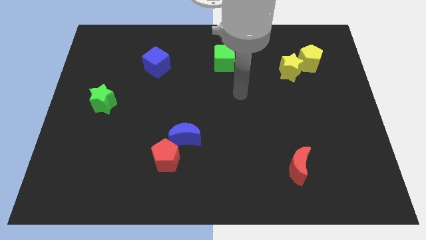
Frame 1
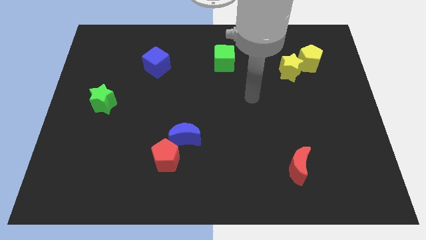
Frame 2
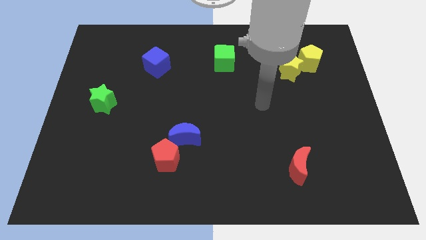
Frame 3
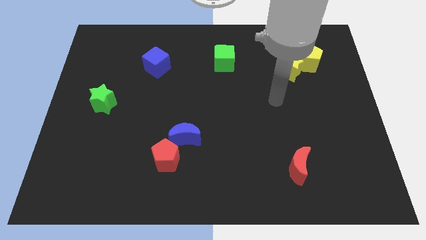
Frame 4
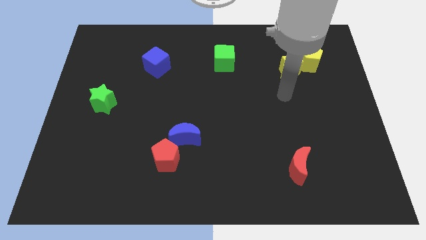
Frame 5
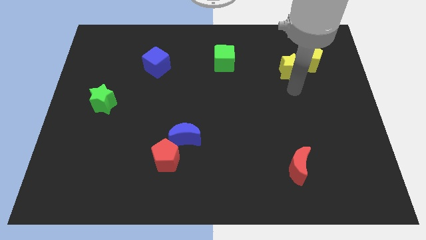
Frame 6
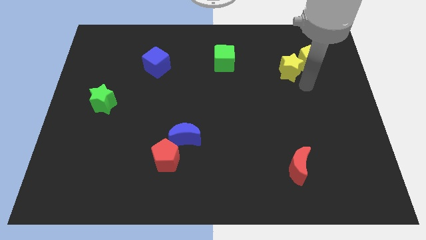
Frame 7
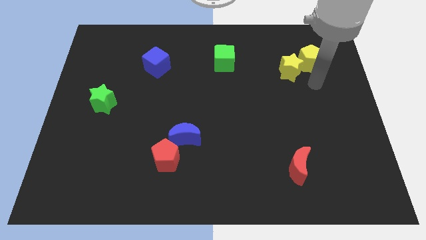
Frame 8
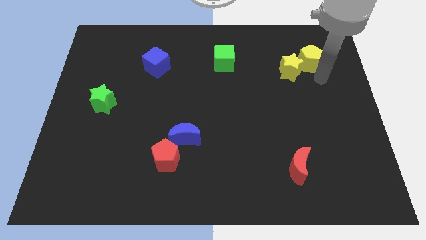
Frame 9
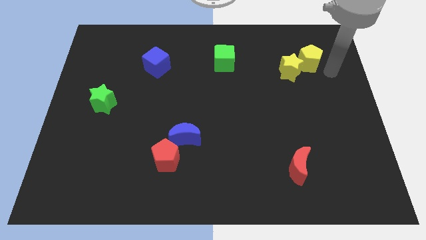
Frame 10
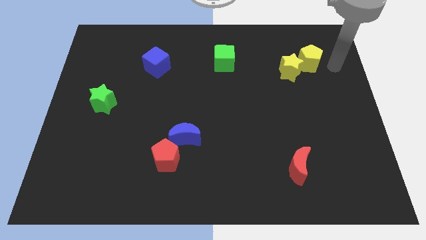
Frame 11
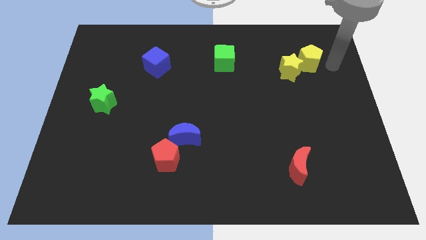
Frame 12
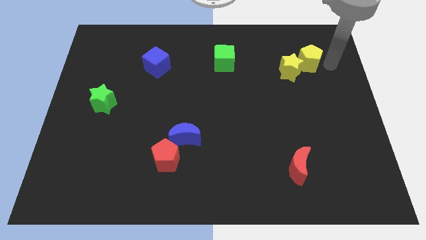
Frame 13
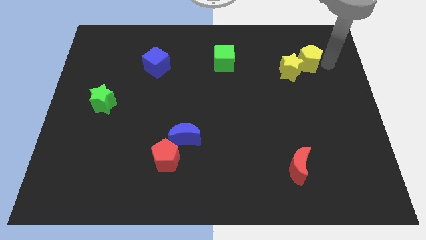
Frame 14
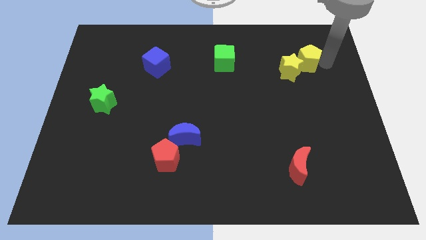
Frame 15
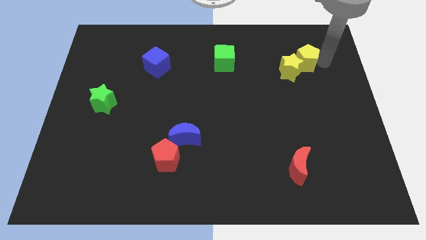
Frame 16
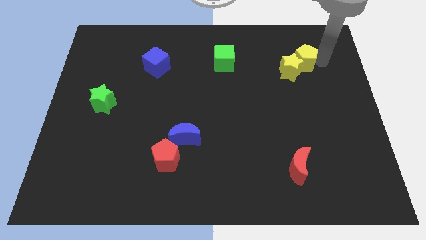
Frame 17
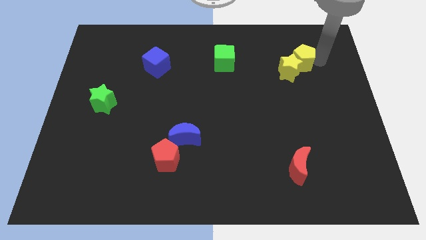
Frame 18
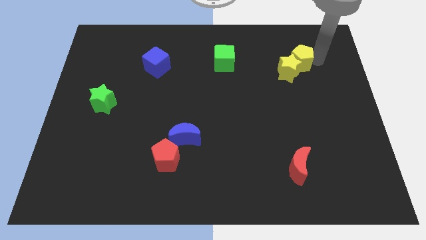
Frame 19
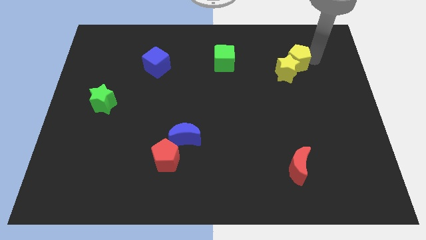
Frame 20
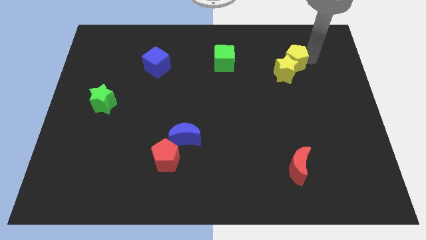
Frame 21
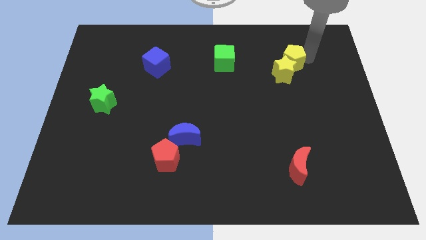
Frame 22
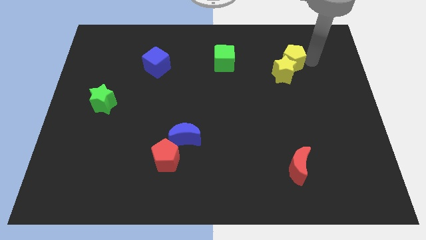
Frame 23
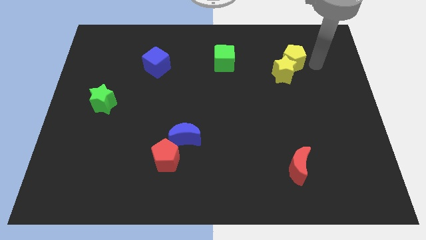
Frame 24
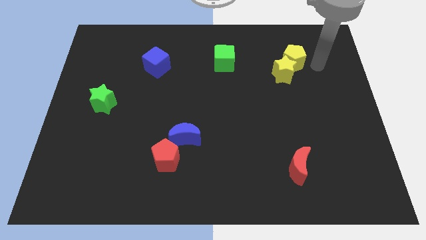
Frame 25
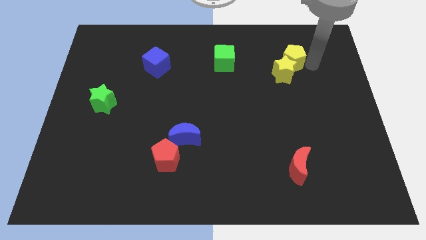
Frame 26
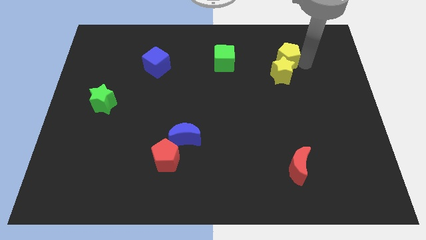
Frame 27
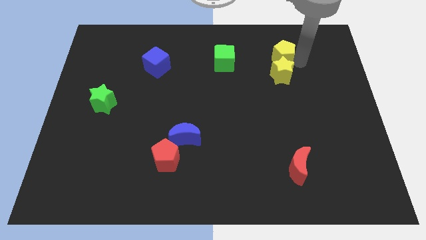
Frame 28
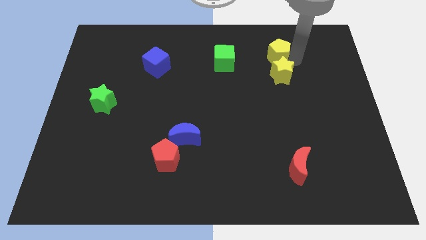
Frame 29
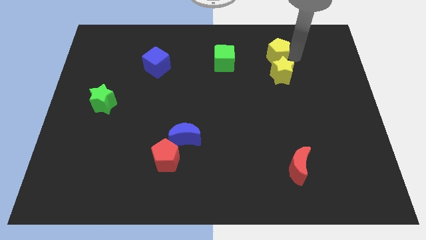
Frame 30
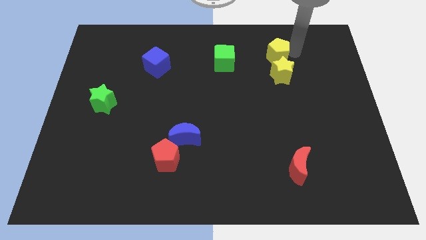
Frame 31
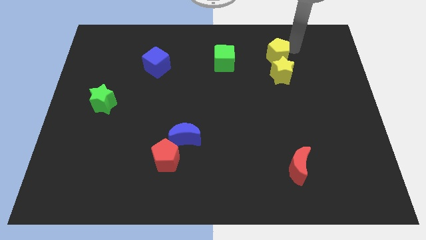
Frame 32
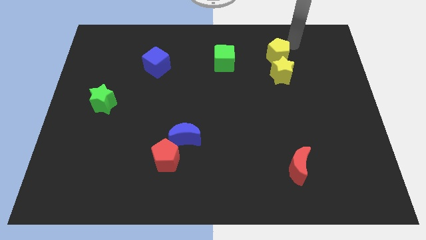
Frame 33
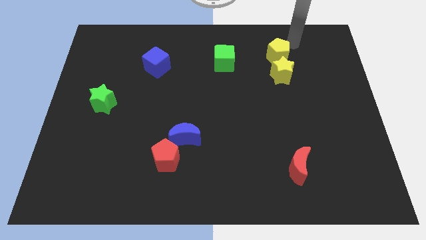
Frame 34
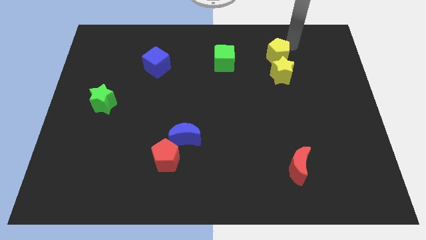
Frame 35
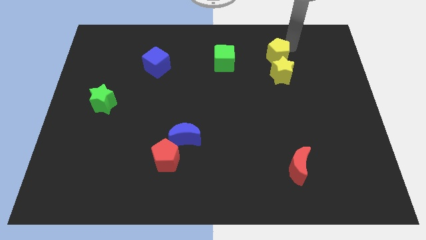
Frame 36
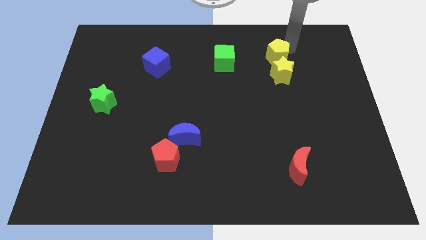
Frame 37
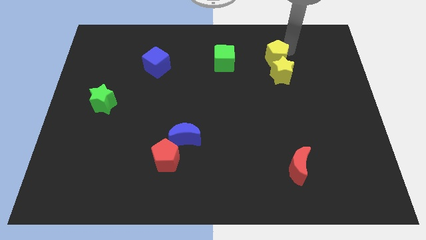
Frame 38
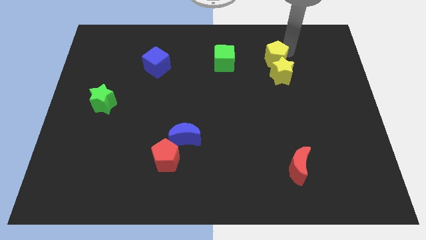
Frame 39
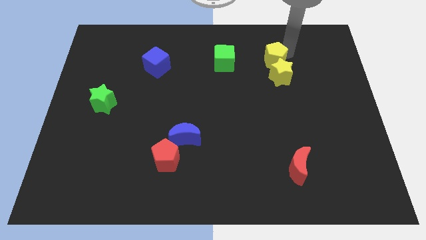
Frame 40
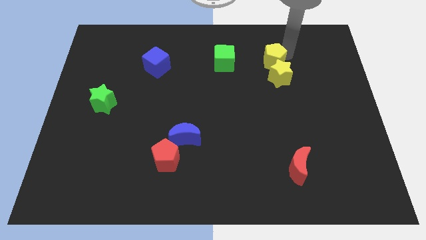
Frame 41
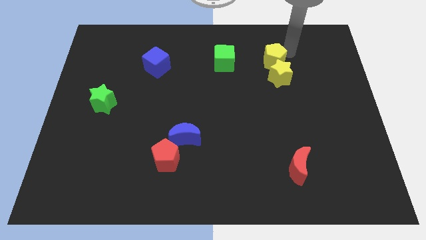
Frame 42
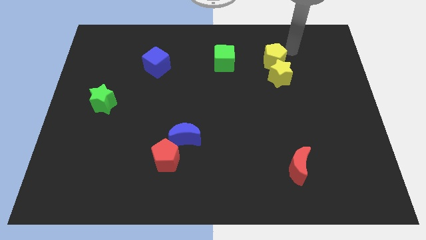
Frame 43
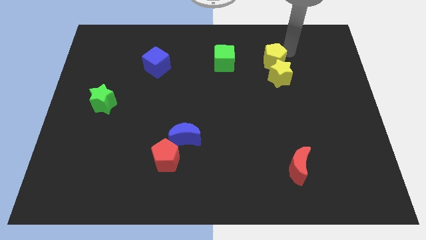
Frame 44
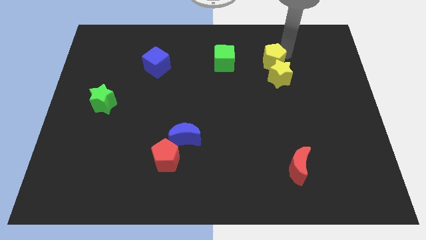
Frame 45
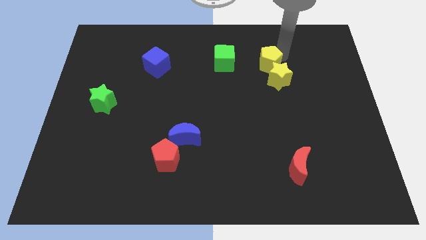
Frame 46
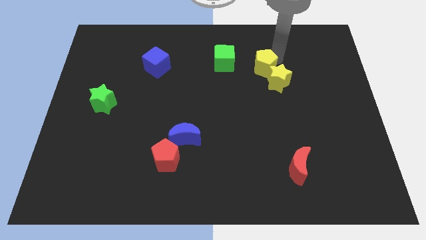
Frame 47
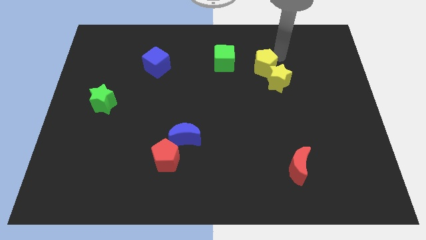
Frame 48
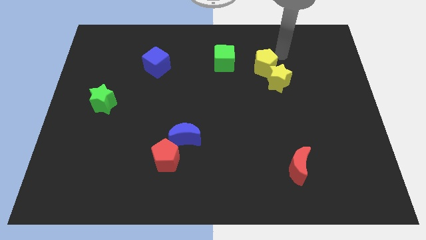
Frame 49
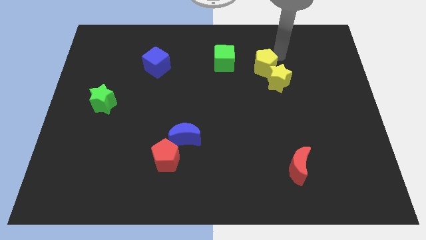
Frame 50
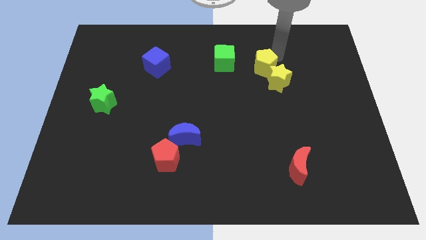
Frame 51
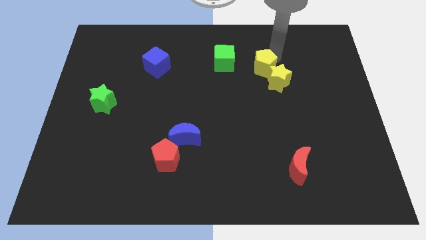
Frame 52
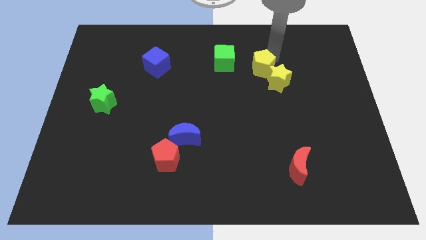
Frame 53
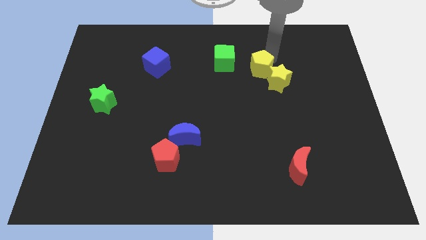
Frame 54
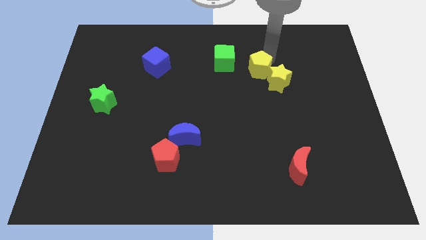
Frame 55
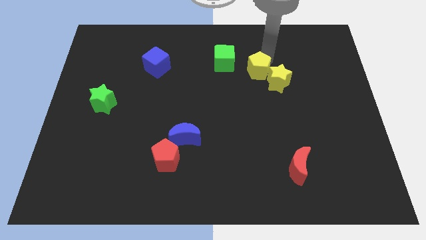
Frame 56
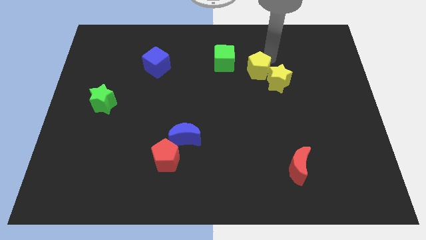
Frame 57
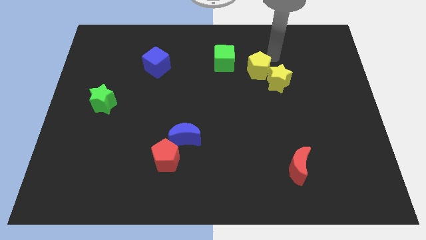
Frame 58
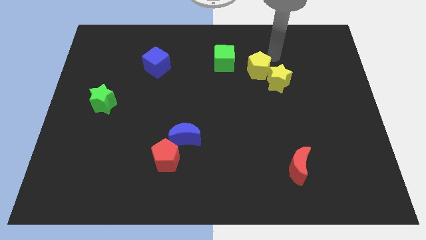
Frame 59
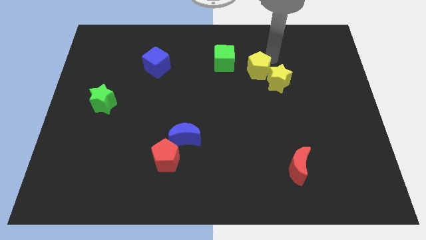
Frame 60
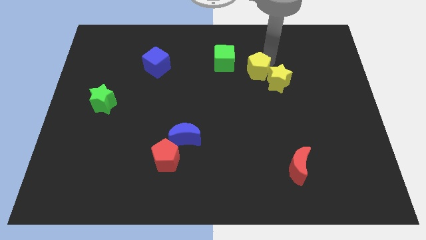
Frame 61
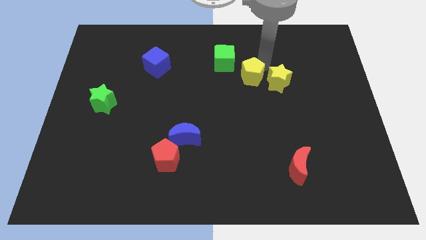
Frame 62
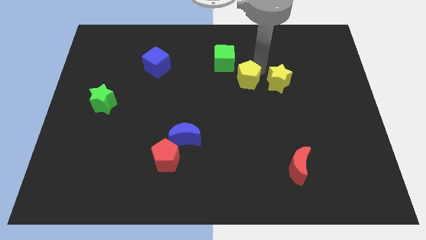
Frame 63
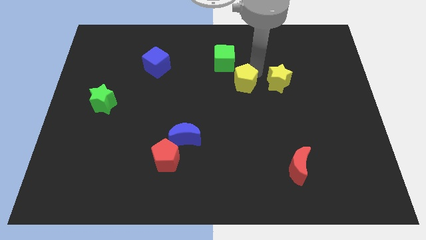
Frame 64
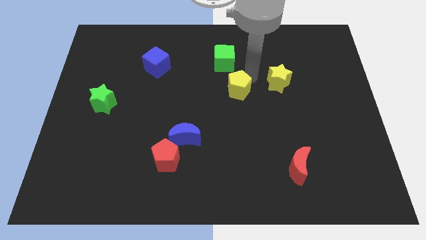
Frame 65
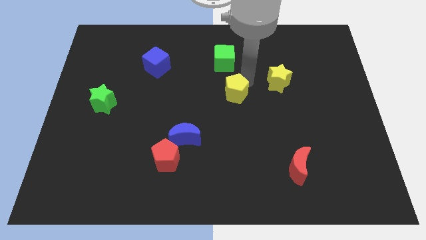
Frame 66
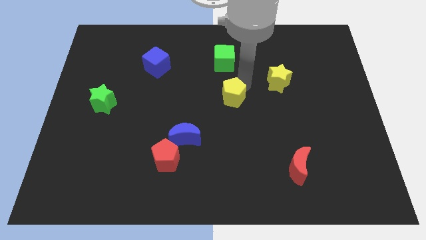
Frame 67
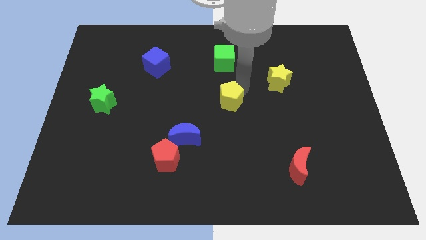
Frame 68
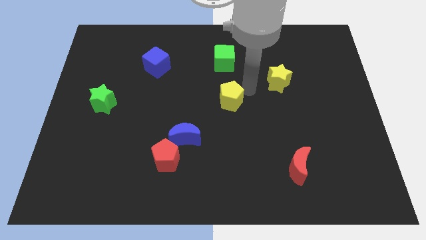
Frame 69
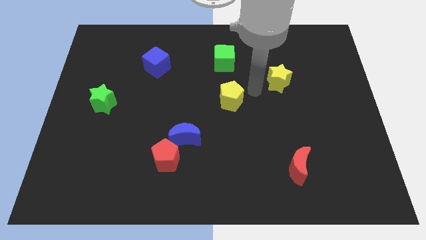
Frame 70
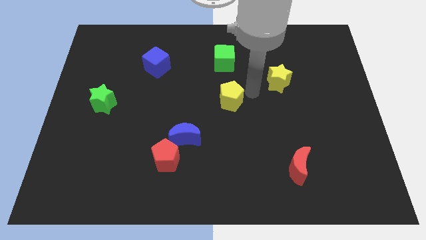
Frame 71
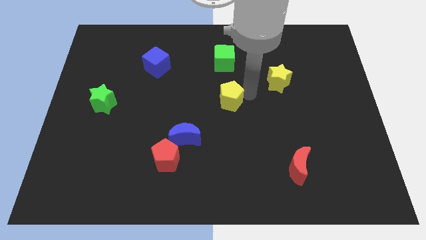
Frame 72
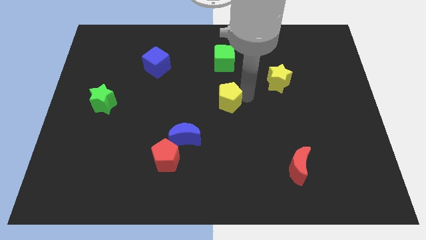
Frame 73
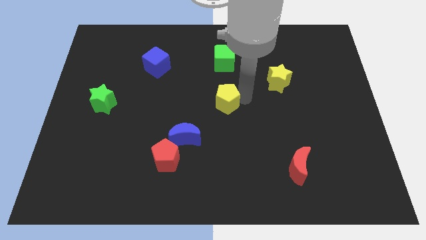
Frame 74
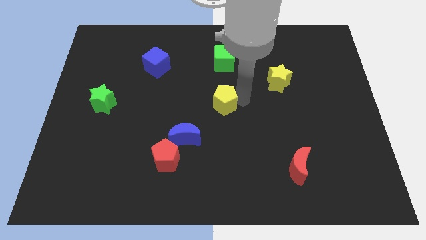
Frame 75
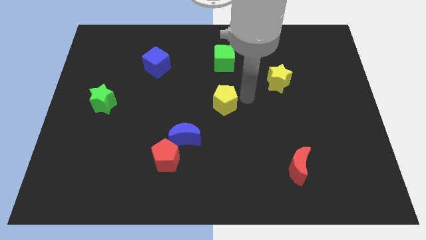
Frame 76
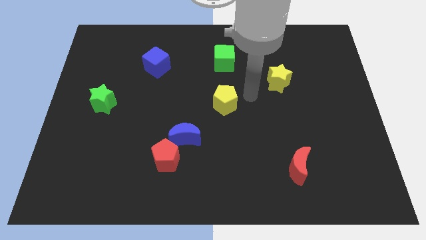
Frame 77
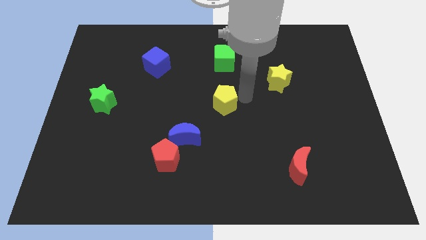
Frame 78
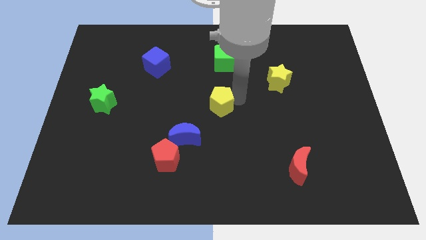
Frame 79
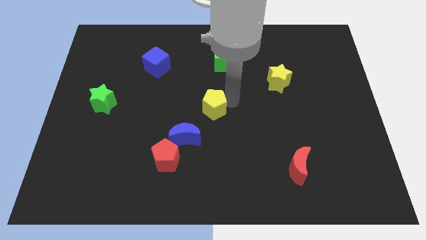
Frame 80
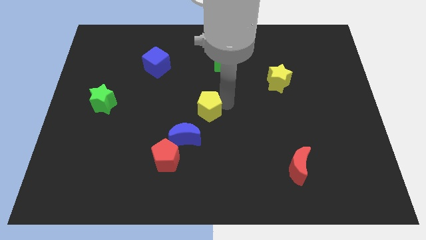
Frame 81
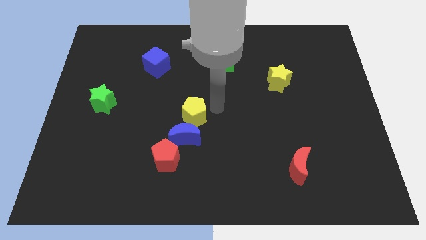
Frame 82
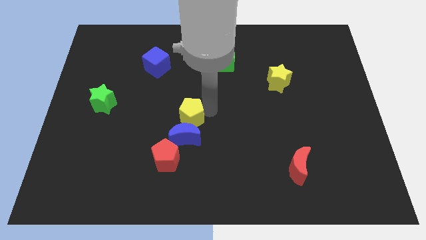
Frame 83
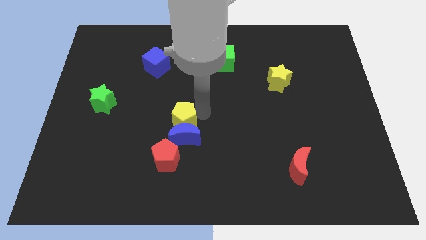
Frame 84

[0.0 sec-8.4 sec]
push the yellow pentagon to the top left of the blue moon
